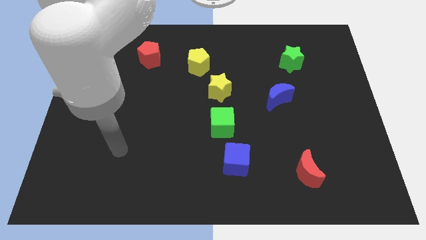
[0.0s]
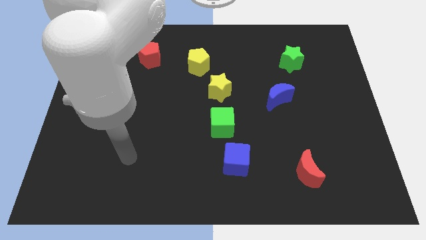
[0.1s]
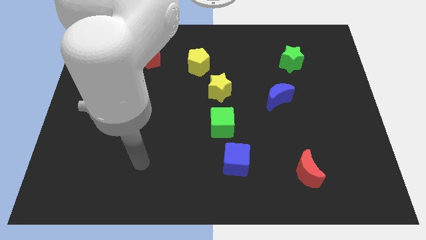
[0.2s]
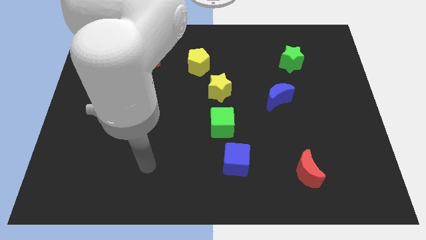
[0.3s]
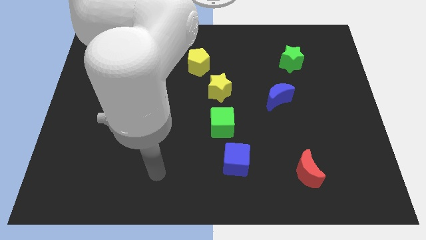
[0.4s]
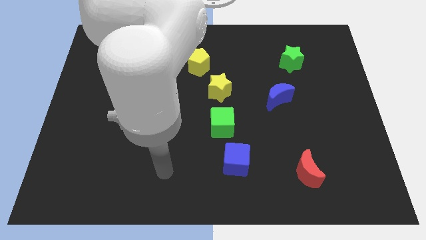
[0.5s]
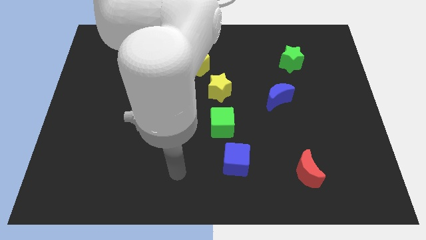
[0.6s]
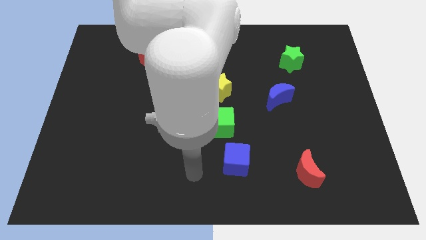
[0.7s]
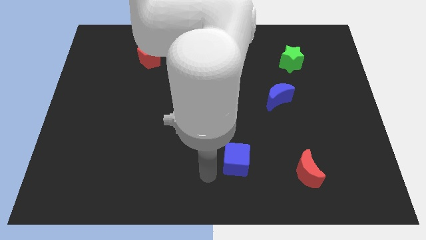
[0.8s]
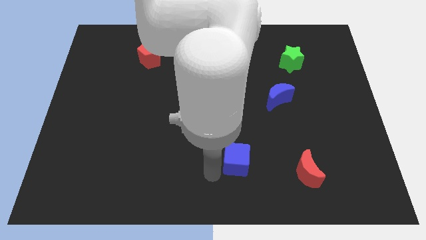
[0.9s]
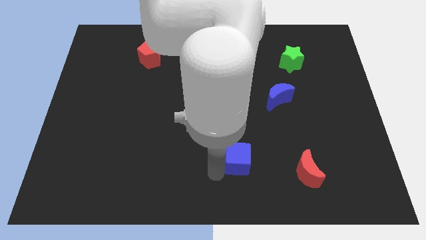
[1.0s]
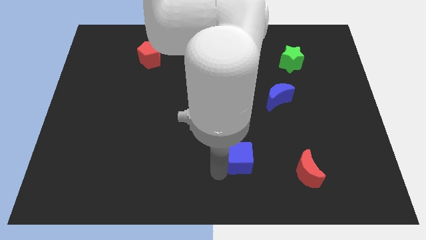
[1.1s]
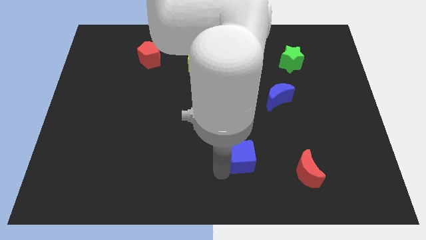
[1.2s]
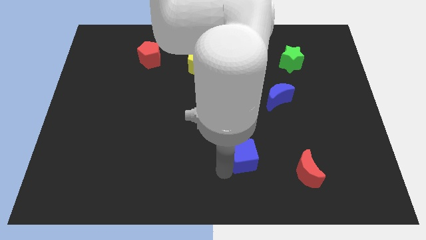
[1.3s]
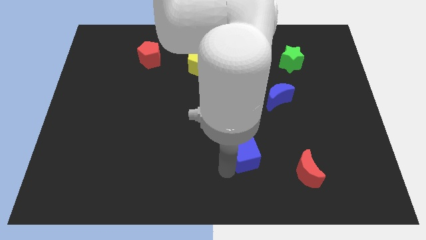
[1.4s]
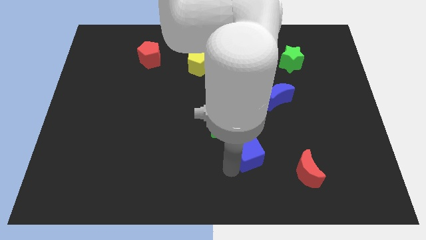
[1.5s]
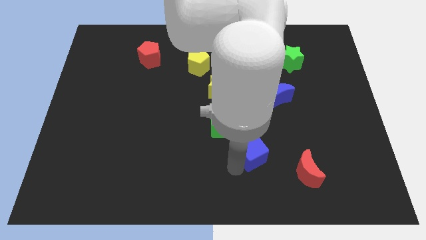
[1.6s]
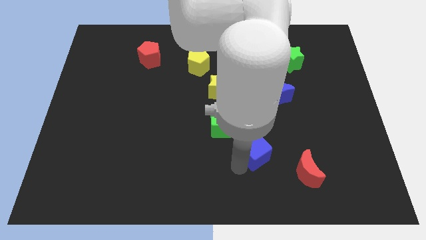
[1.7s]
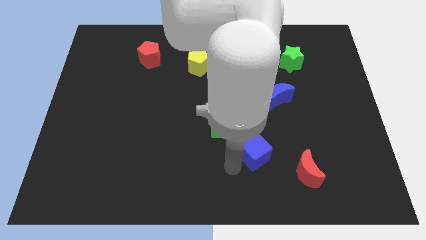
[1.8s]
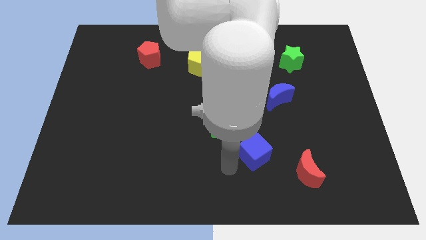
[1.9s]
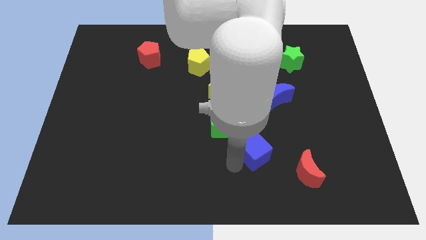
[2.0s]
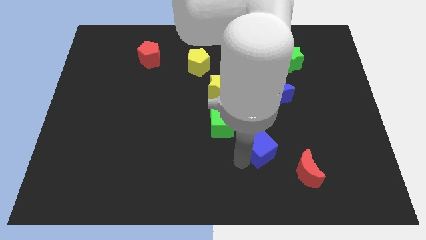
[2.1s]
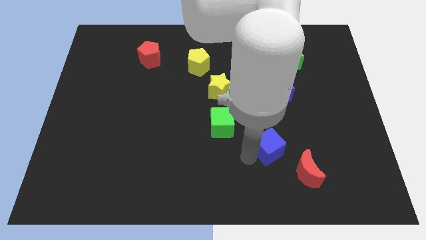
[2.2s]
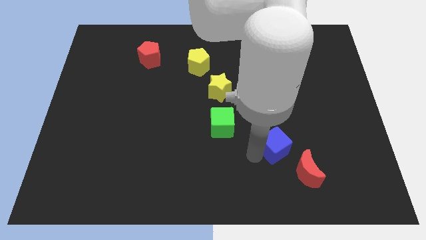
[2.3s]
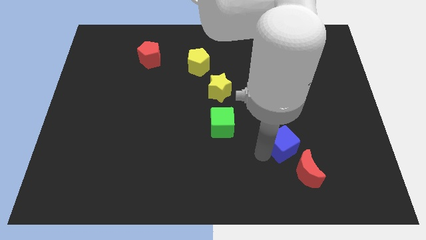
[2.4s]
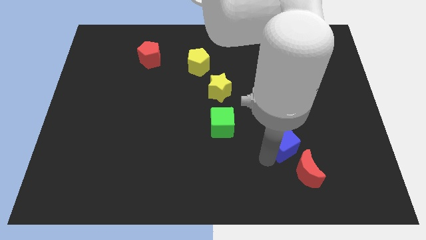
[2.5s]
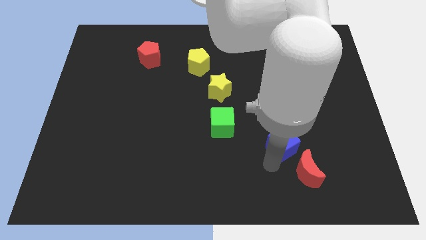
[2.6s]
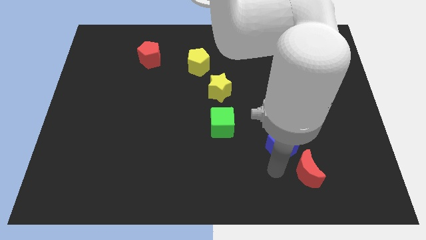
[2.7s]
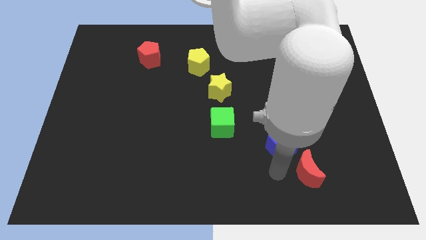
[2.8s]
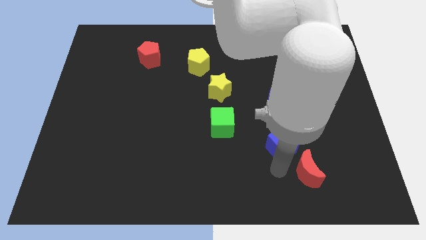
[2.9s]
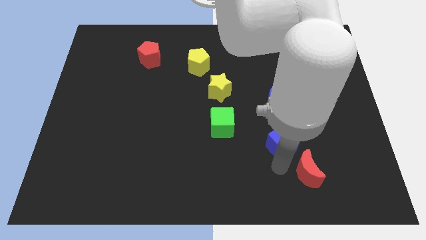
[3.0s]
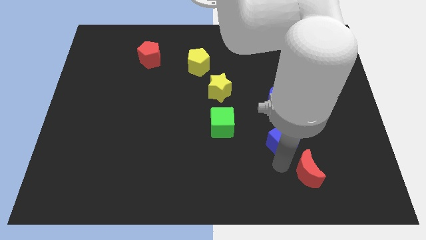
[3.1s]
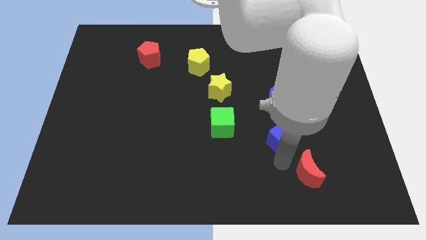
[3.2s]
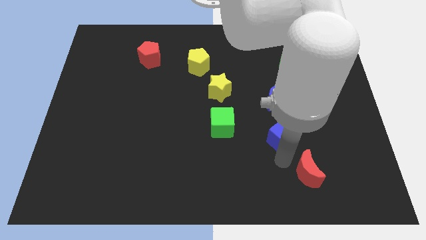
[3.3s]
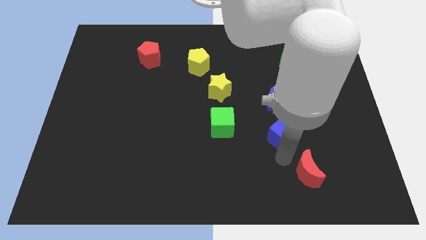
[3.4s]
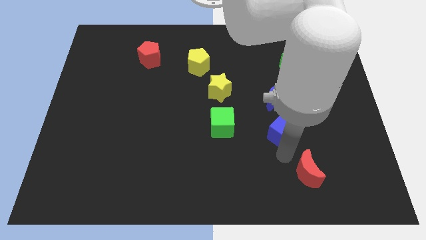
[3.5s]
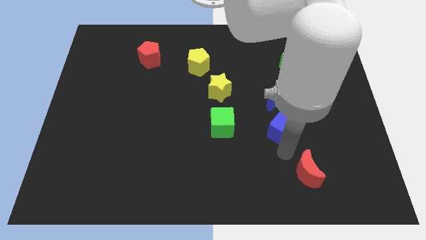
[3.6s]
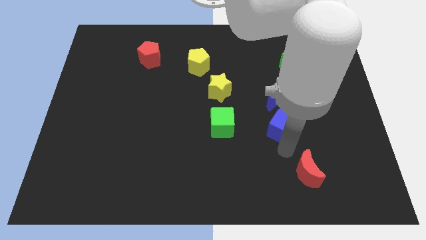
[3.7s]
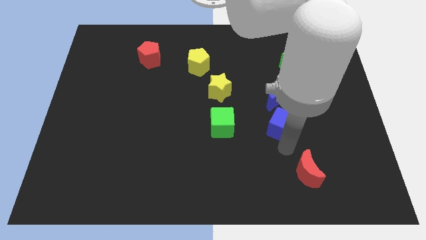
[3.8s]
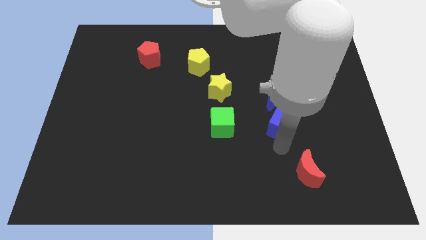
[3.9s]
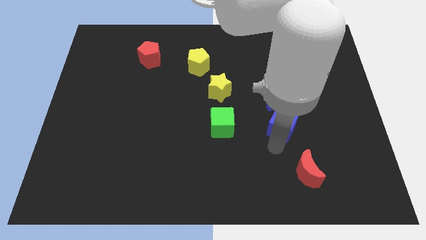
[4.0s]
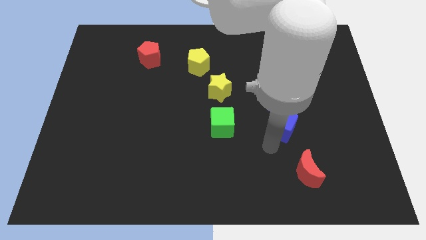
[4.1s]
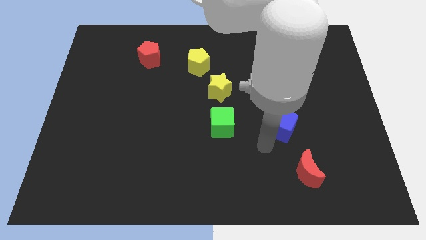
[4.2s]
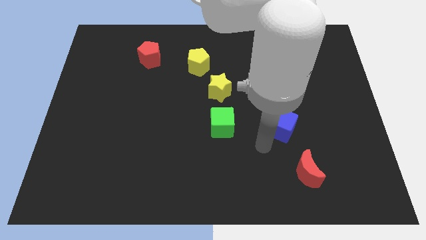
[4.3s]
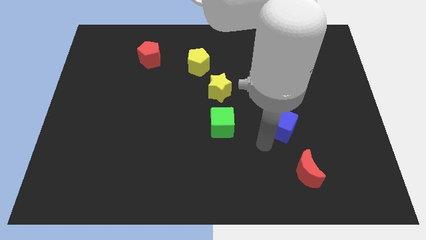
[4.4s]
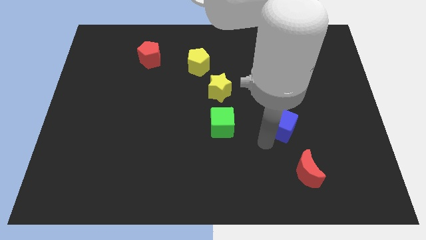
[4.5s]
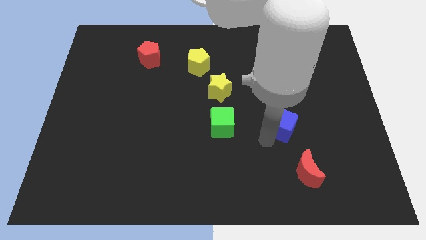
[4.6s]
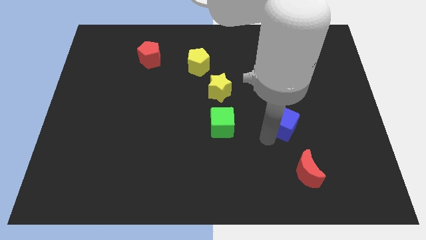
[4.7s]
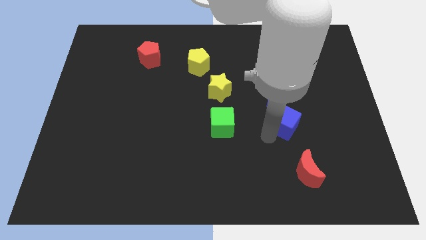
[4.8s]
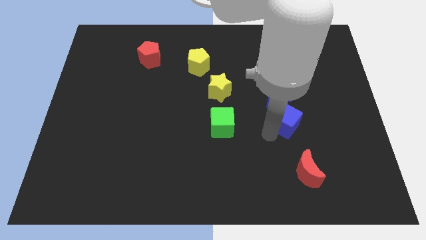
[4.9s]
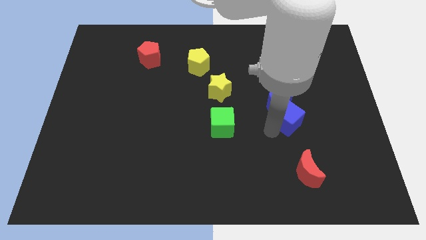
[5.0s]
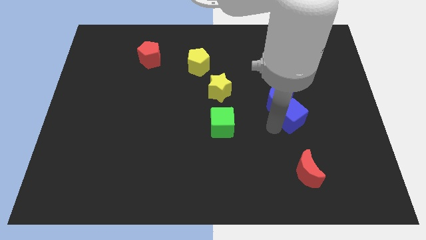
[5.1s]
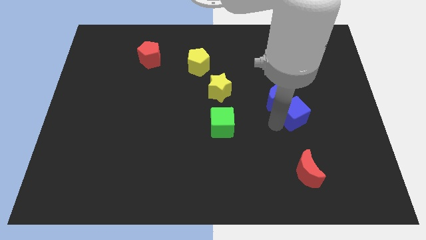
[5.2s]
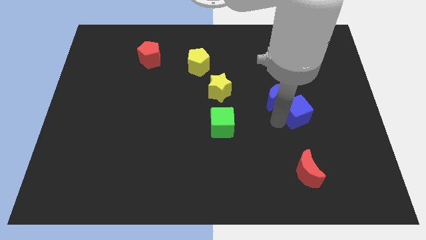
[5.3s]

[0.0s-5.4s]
move the blue cube to the right of the blue moon

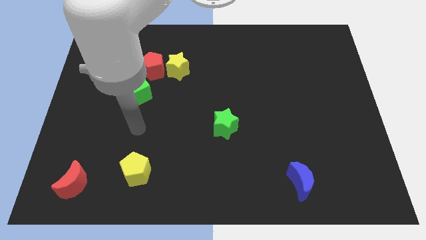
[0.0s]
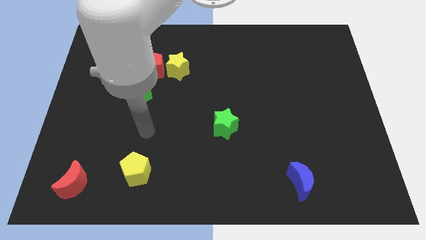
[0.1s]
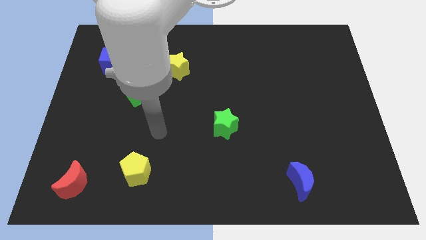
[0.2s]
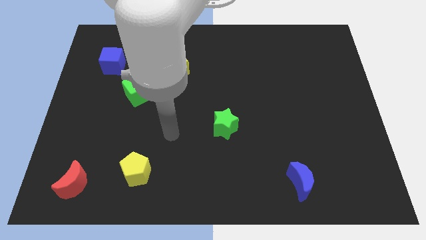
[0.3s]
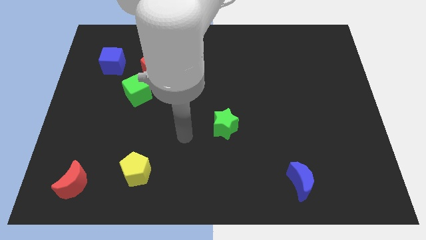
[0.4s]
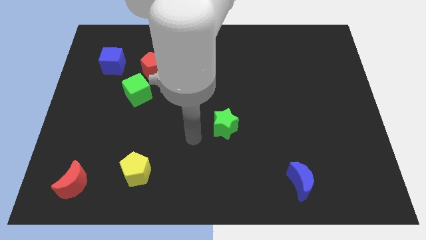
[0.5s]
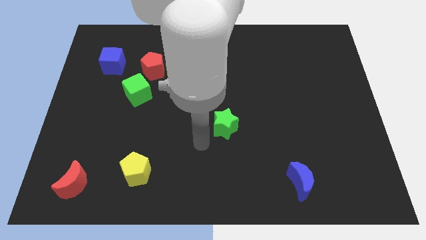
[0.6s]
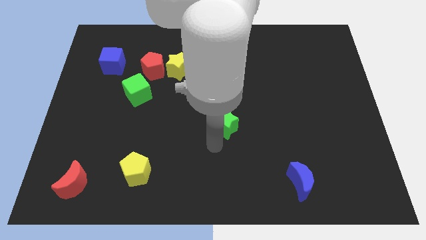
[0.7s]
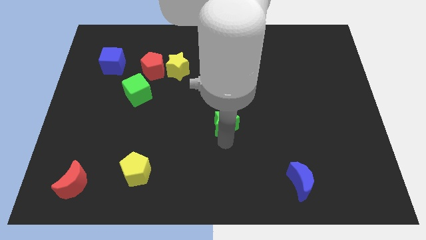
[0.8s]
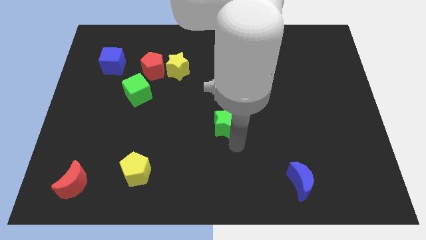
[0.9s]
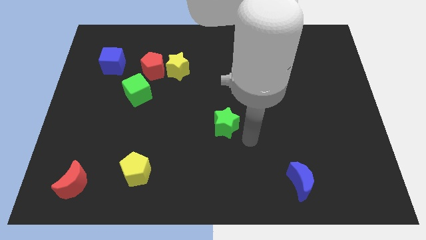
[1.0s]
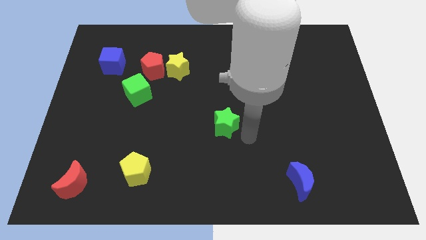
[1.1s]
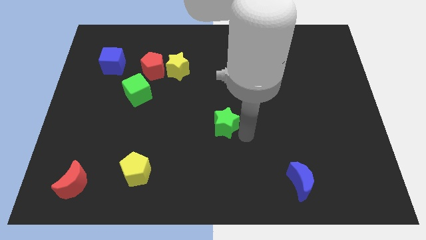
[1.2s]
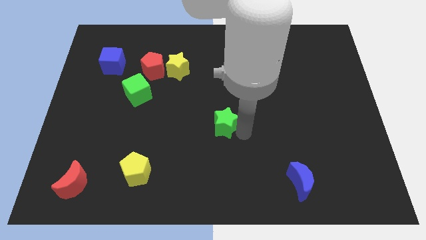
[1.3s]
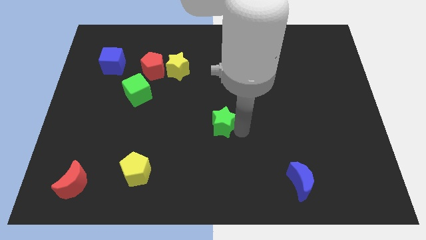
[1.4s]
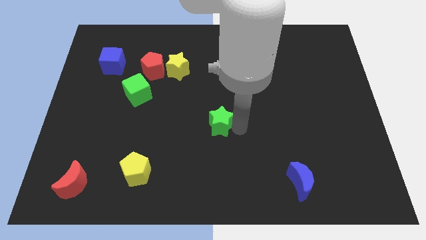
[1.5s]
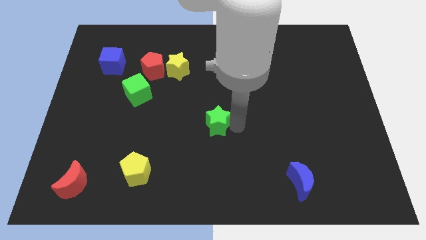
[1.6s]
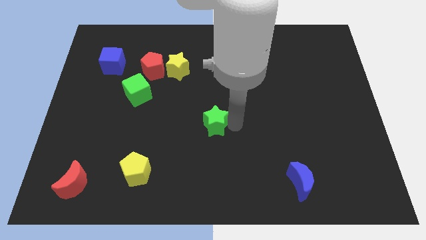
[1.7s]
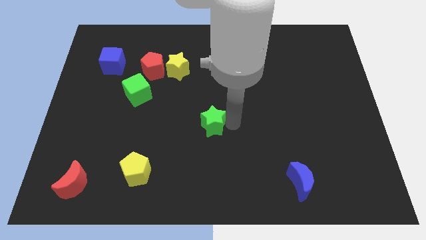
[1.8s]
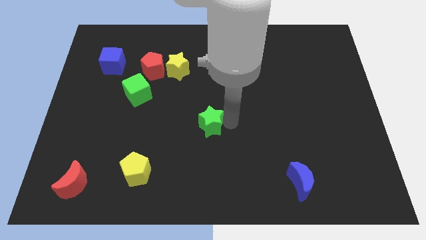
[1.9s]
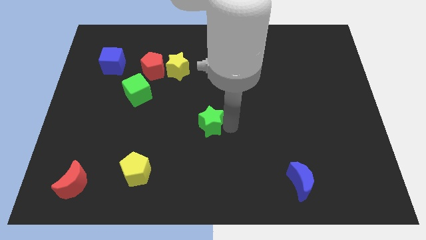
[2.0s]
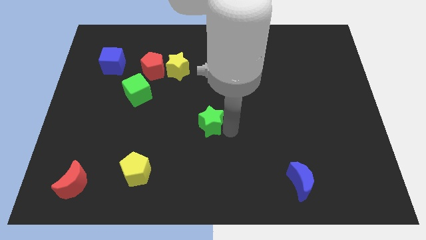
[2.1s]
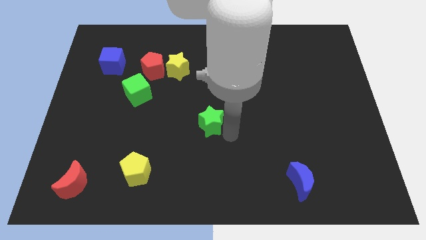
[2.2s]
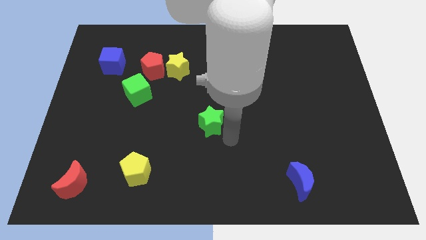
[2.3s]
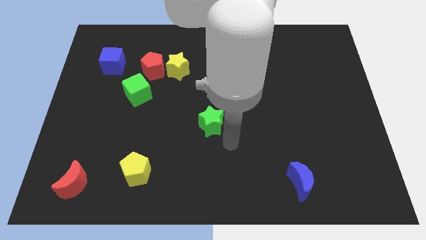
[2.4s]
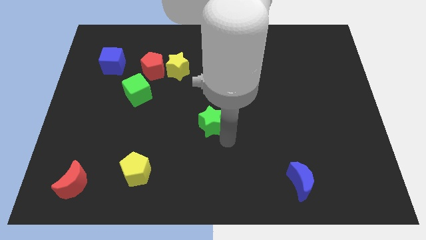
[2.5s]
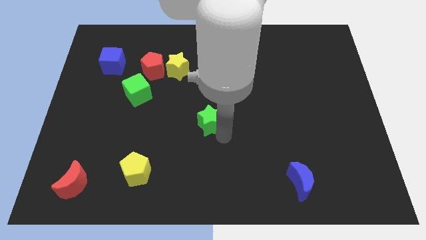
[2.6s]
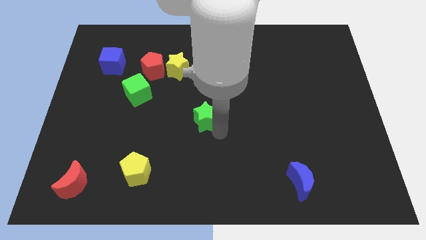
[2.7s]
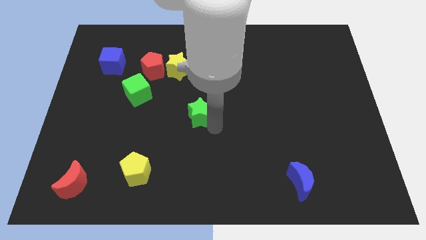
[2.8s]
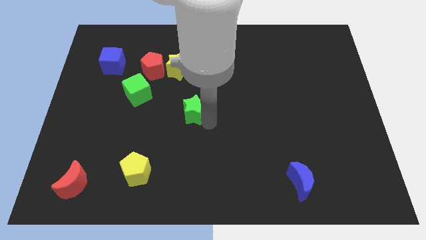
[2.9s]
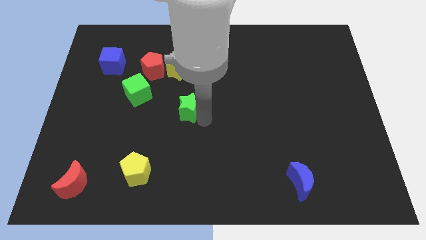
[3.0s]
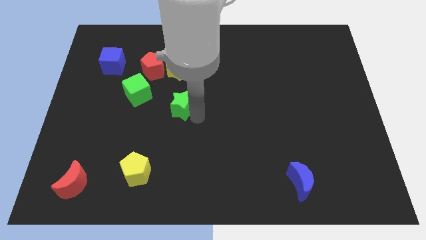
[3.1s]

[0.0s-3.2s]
push the green star to the right side of the green cube
